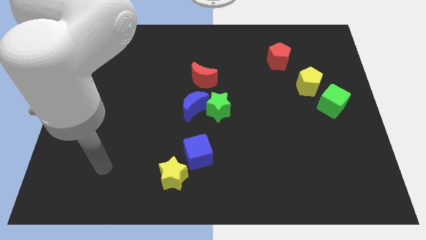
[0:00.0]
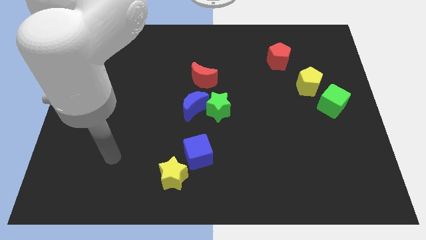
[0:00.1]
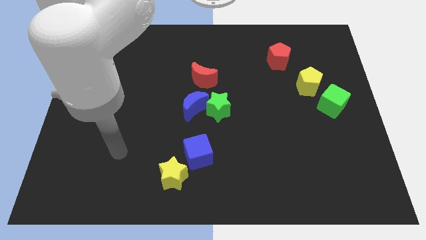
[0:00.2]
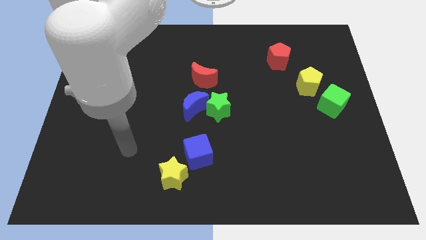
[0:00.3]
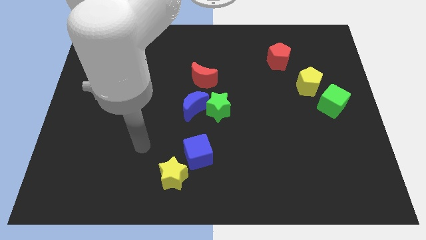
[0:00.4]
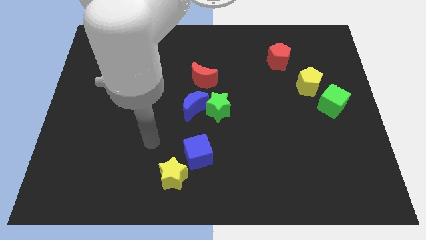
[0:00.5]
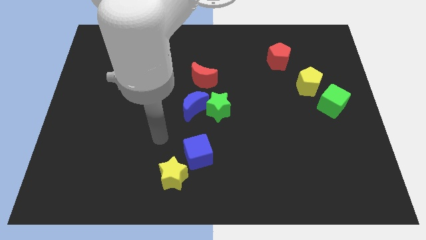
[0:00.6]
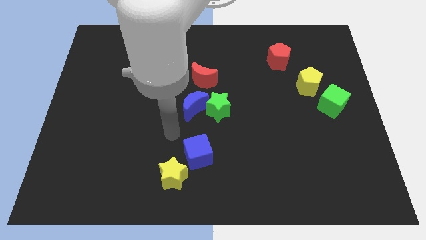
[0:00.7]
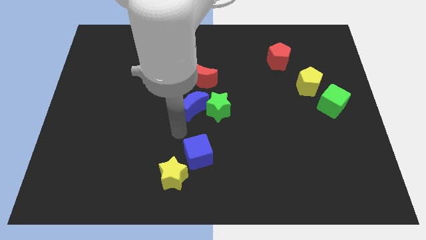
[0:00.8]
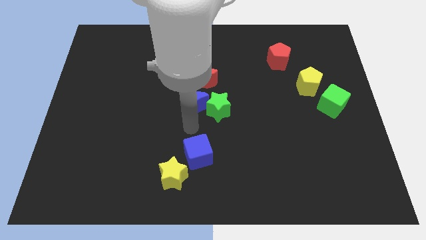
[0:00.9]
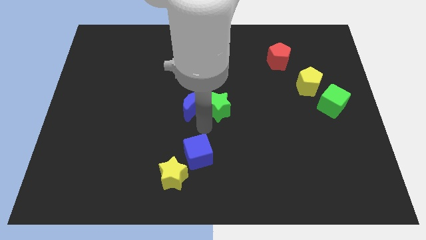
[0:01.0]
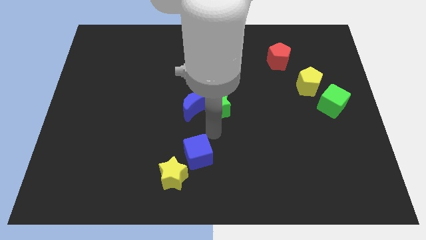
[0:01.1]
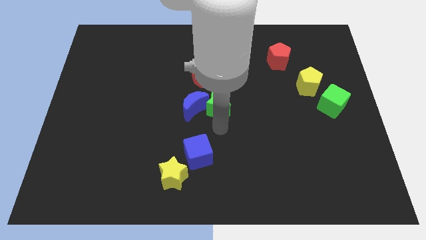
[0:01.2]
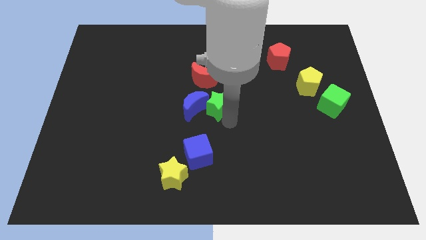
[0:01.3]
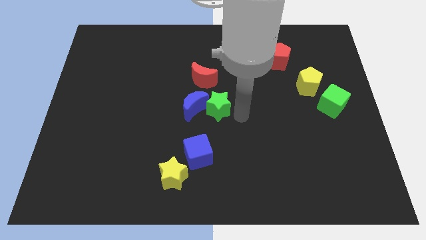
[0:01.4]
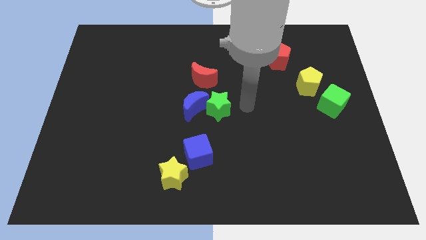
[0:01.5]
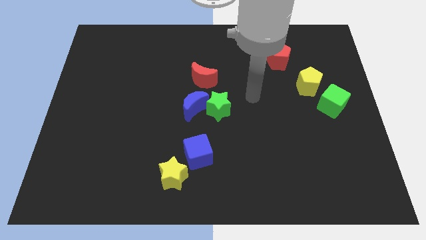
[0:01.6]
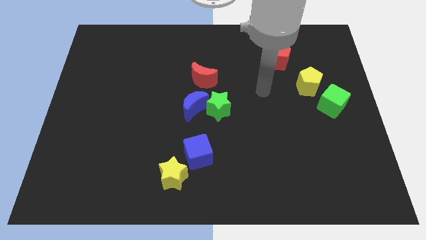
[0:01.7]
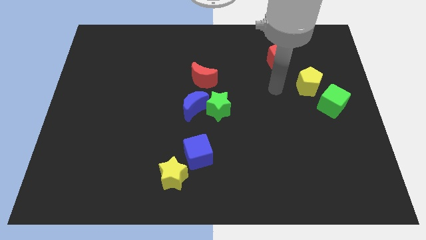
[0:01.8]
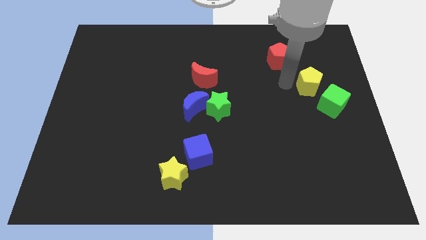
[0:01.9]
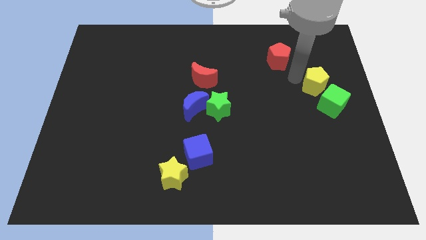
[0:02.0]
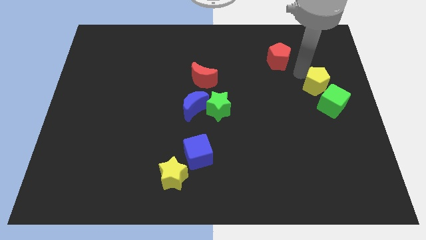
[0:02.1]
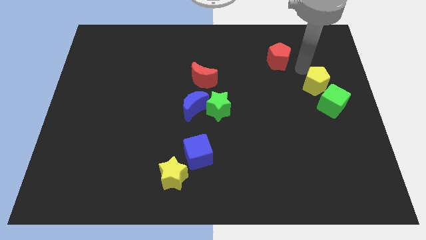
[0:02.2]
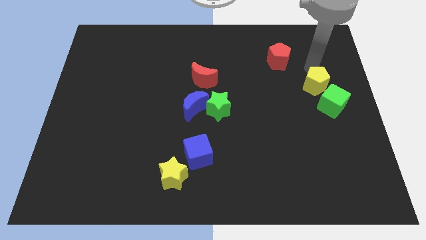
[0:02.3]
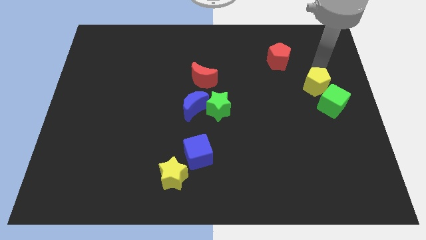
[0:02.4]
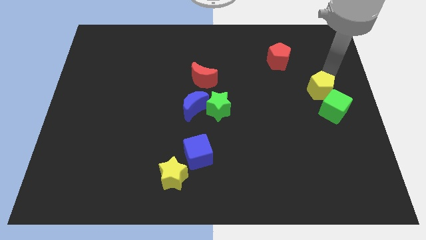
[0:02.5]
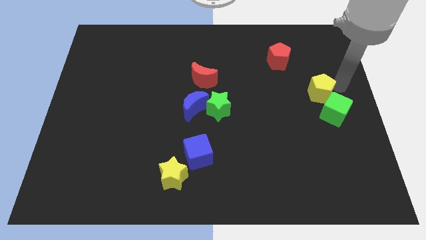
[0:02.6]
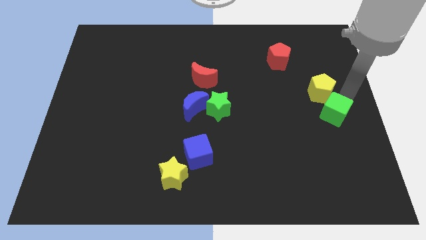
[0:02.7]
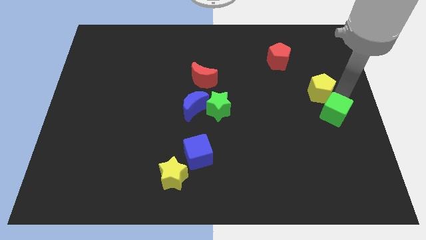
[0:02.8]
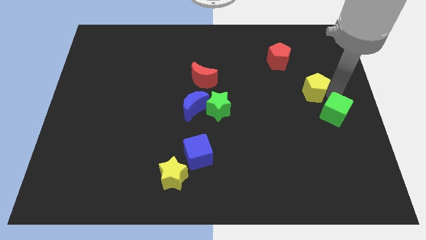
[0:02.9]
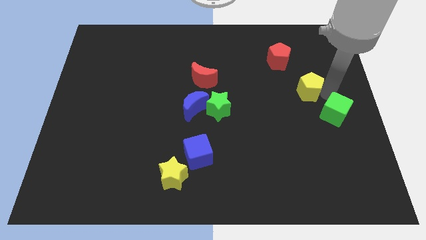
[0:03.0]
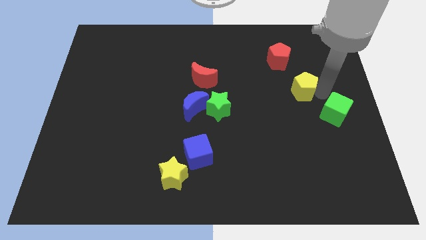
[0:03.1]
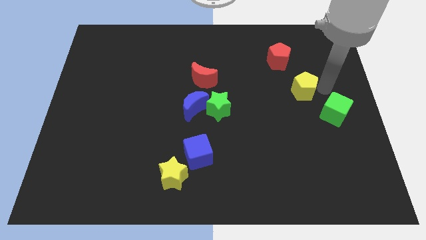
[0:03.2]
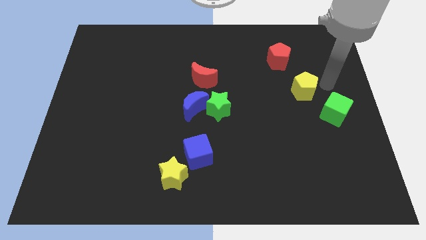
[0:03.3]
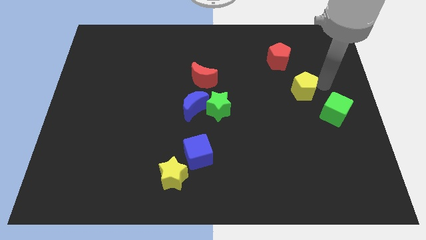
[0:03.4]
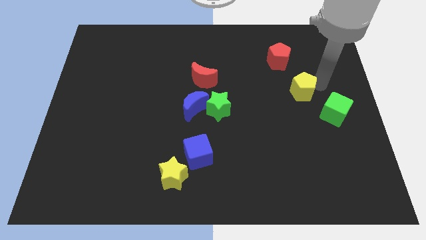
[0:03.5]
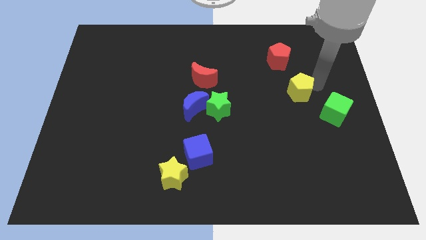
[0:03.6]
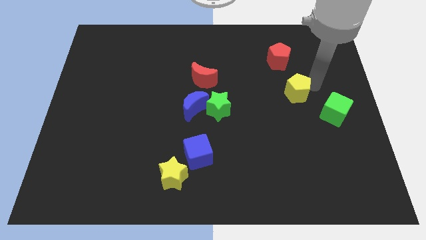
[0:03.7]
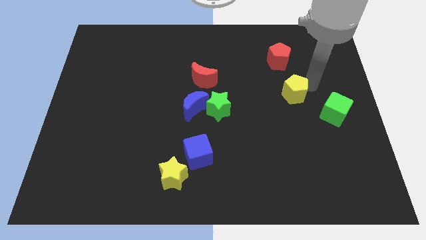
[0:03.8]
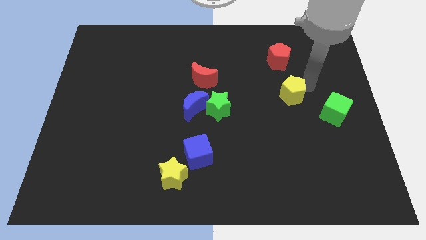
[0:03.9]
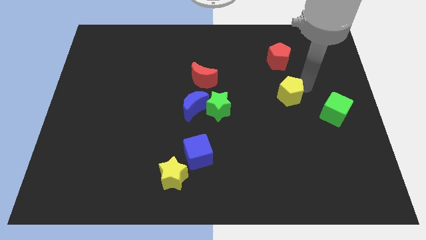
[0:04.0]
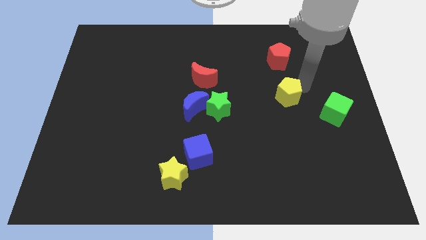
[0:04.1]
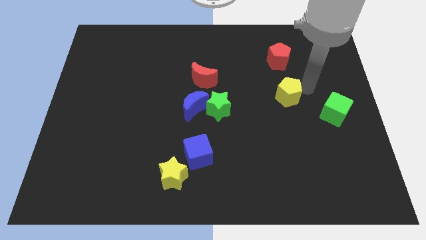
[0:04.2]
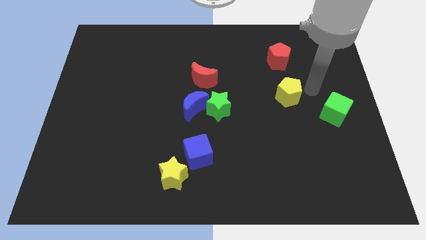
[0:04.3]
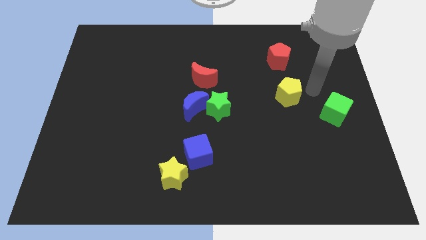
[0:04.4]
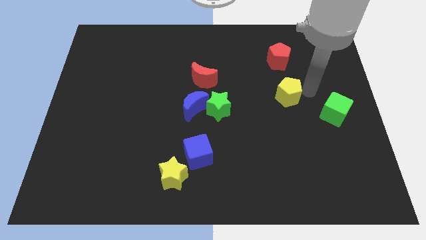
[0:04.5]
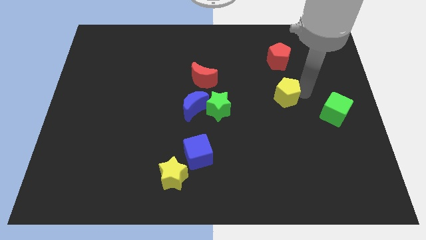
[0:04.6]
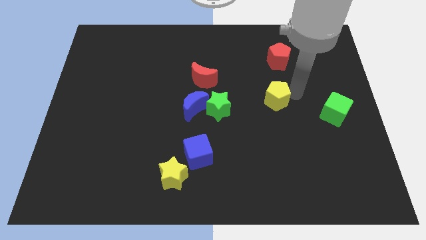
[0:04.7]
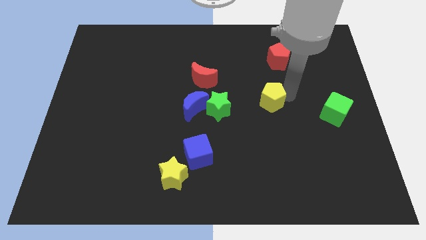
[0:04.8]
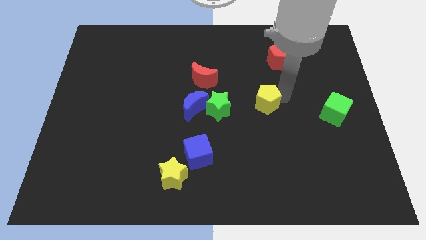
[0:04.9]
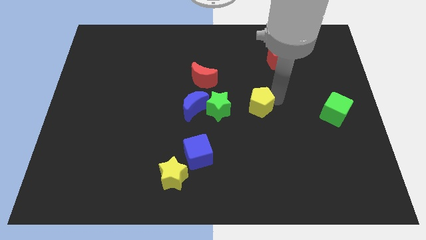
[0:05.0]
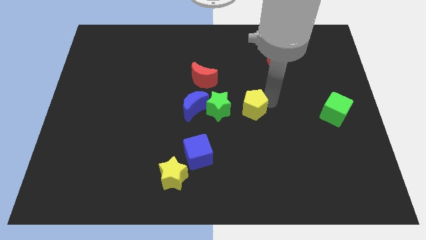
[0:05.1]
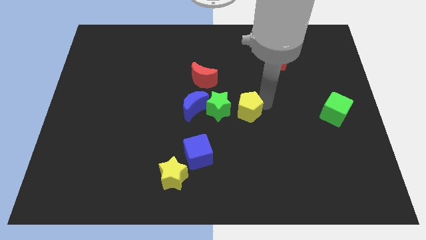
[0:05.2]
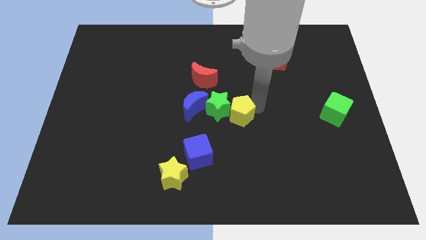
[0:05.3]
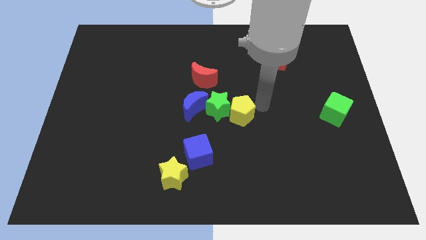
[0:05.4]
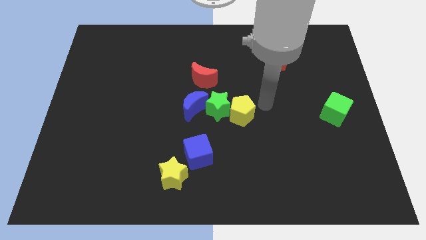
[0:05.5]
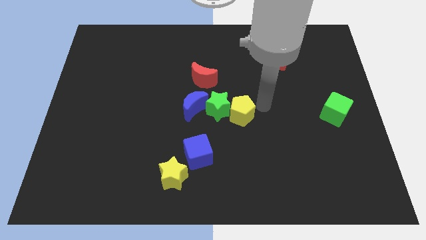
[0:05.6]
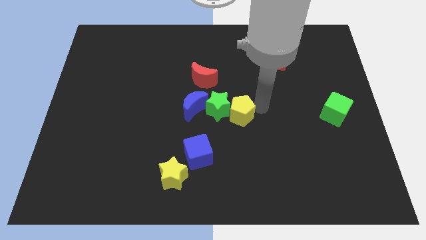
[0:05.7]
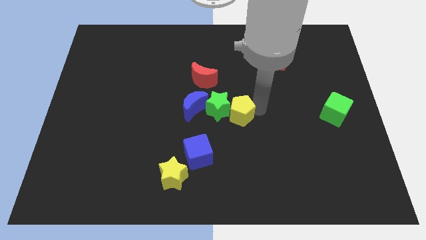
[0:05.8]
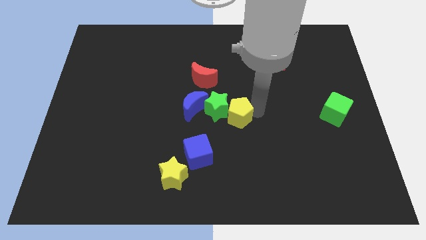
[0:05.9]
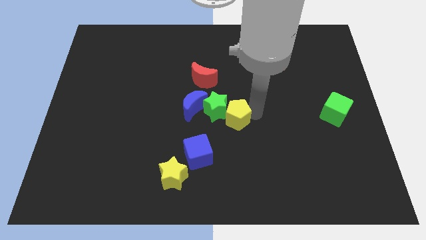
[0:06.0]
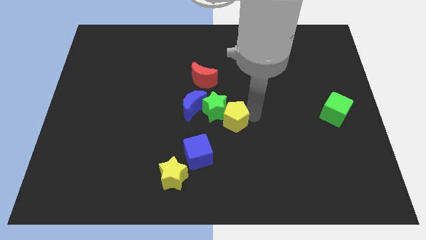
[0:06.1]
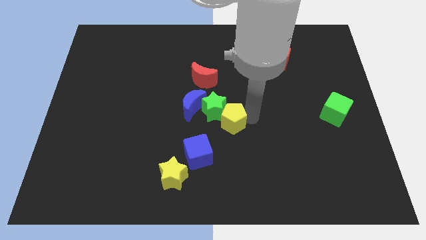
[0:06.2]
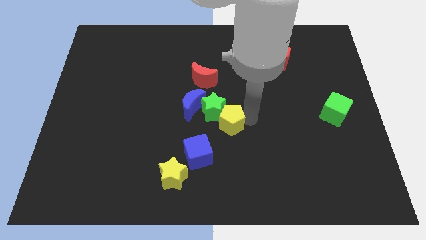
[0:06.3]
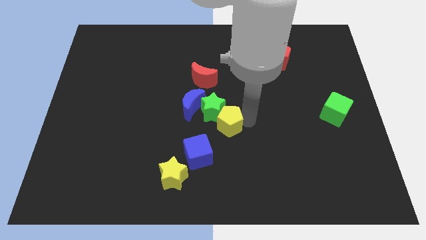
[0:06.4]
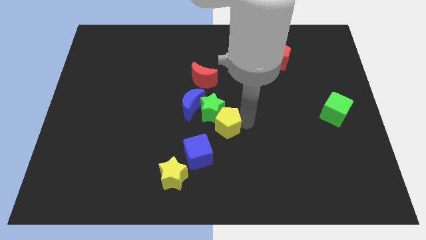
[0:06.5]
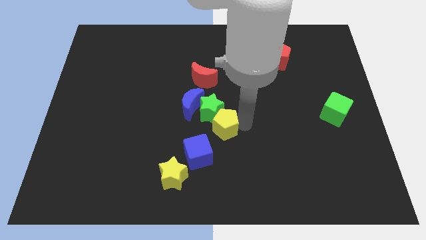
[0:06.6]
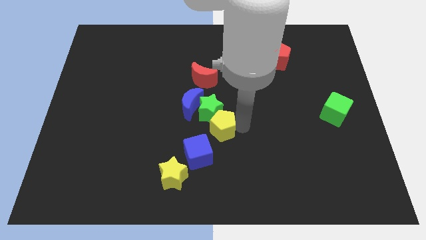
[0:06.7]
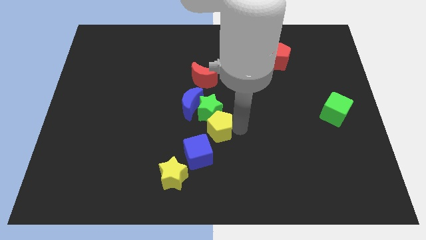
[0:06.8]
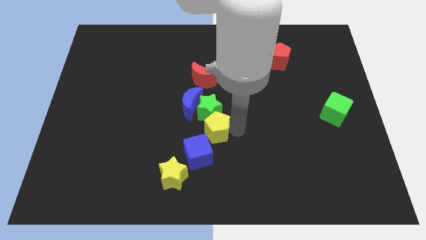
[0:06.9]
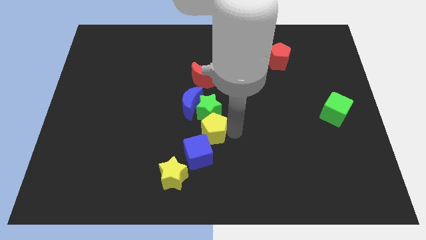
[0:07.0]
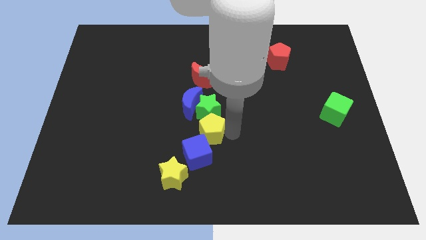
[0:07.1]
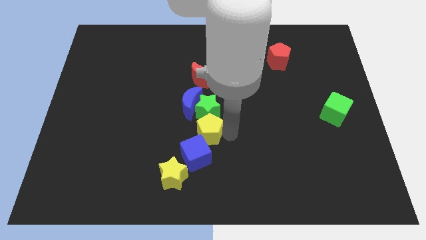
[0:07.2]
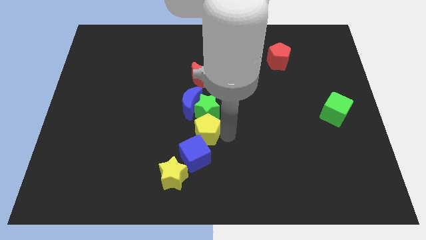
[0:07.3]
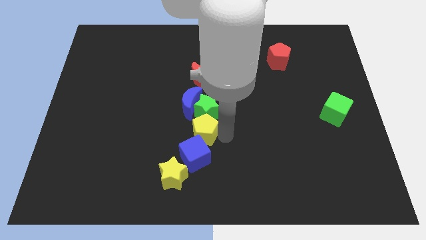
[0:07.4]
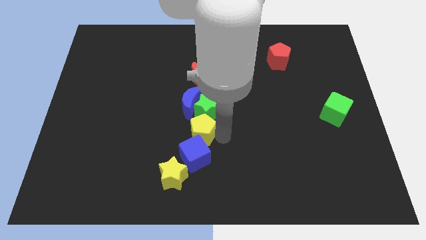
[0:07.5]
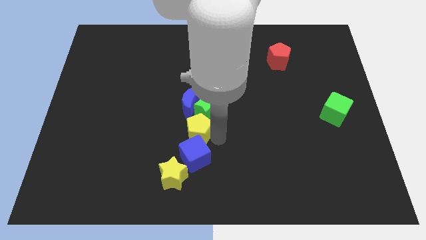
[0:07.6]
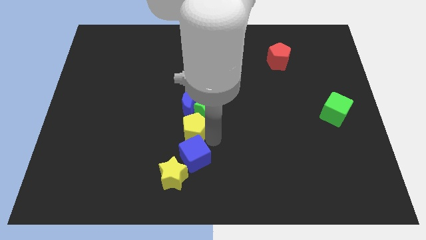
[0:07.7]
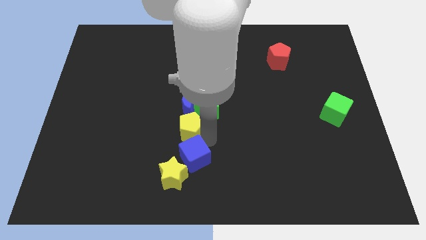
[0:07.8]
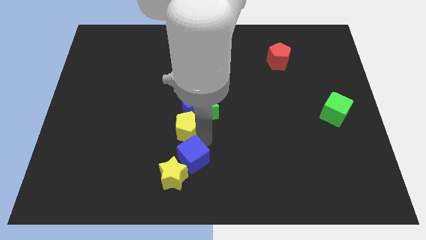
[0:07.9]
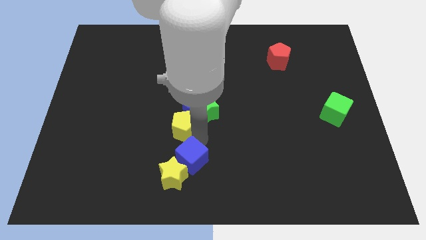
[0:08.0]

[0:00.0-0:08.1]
slide the yellow pentagon to the left of the green star
